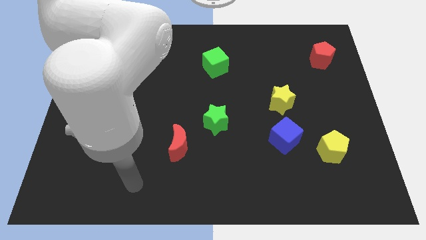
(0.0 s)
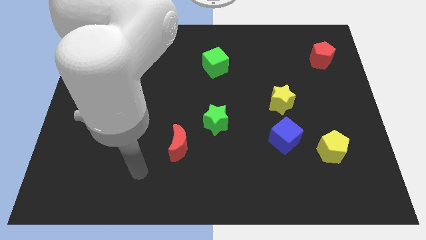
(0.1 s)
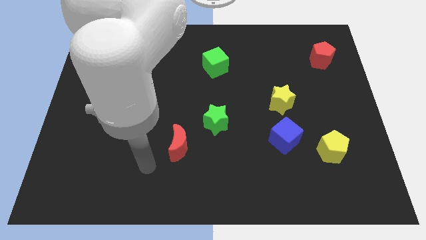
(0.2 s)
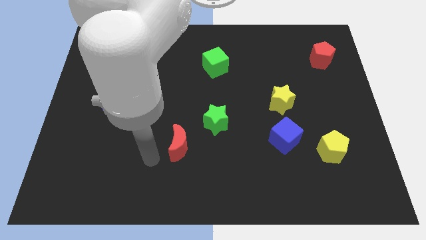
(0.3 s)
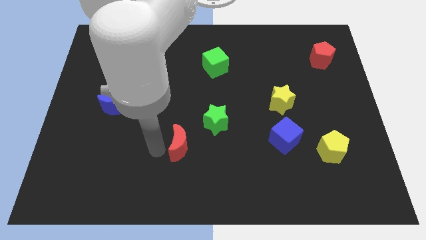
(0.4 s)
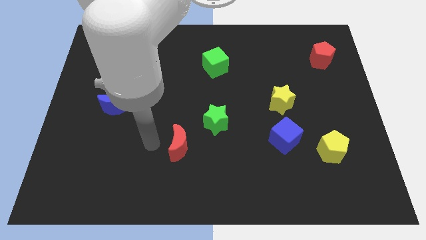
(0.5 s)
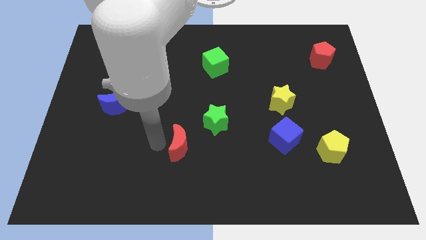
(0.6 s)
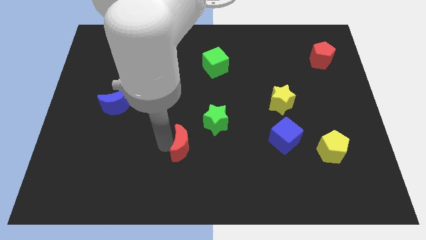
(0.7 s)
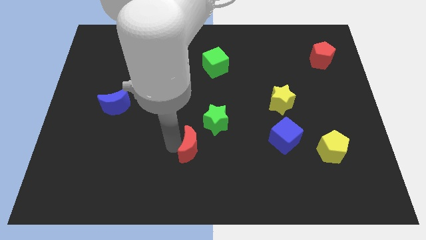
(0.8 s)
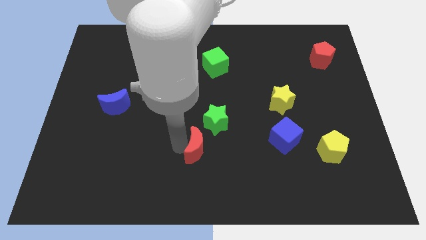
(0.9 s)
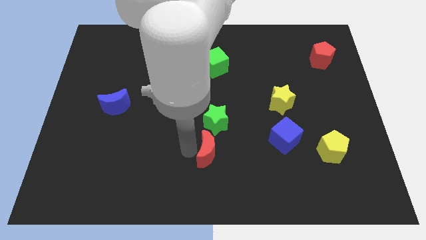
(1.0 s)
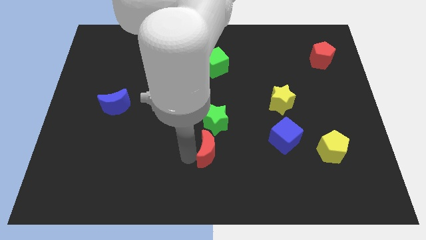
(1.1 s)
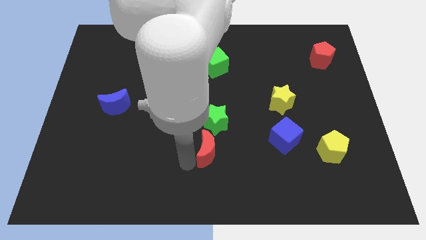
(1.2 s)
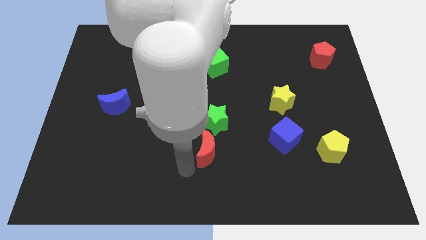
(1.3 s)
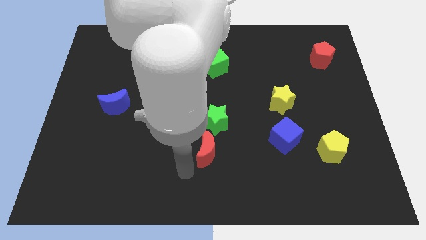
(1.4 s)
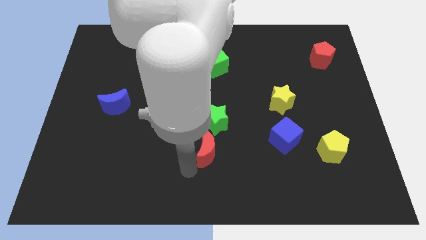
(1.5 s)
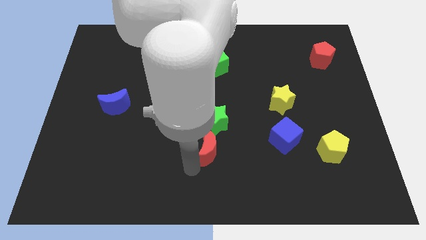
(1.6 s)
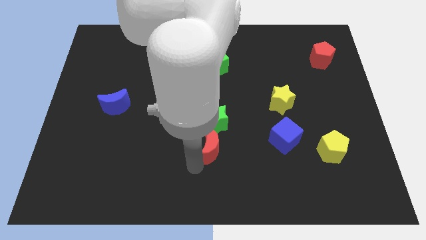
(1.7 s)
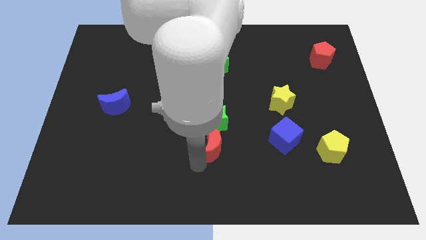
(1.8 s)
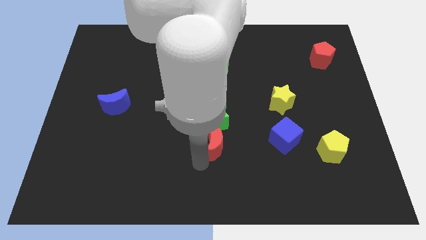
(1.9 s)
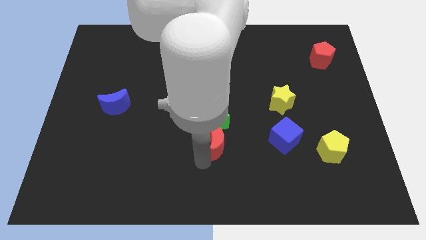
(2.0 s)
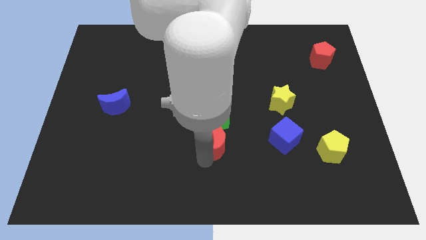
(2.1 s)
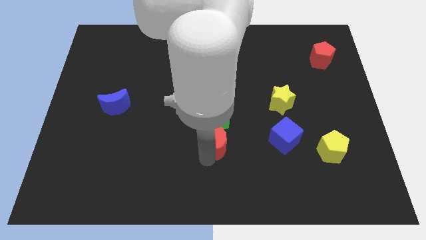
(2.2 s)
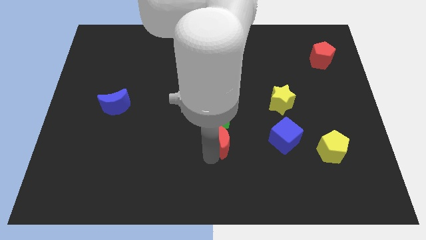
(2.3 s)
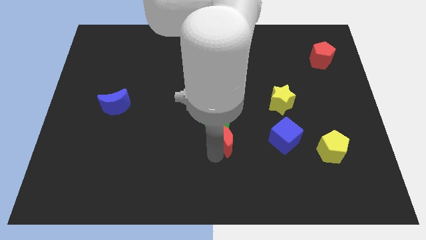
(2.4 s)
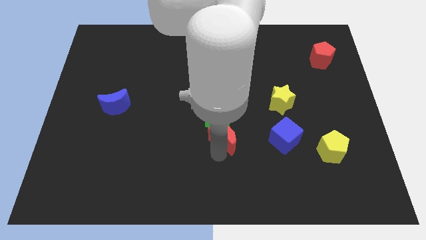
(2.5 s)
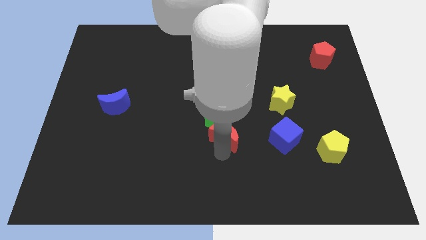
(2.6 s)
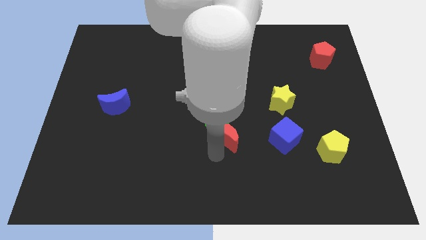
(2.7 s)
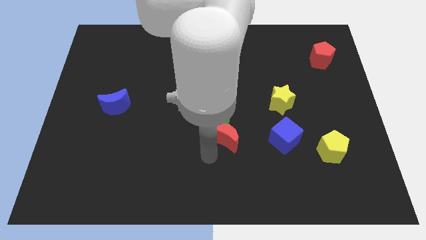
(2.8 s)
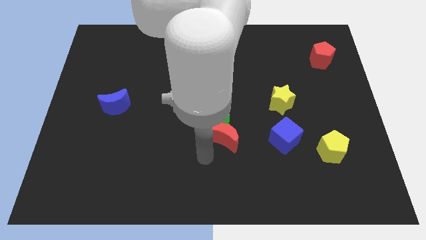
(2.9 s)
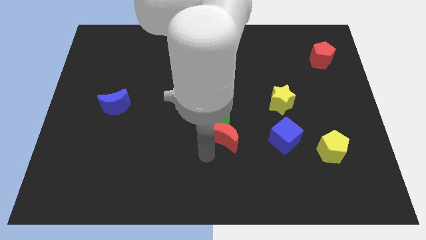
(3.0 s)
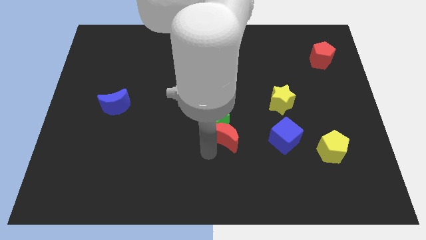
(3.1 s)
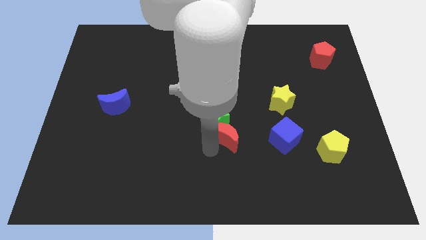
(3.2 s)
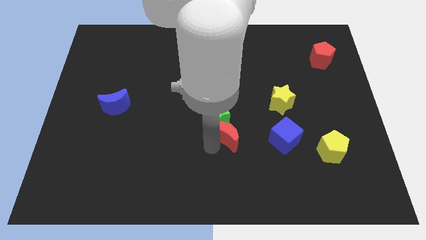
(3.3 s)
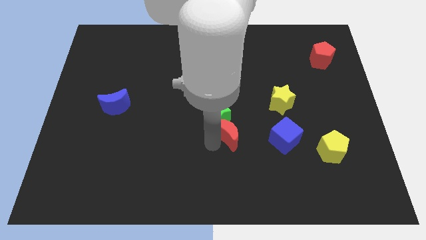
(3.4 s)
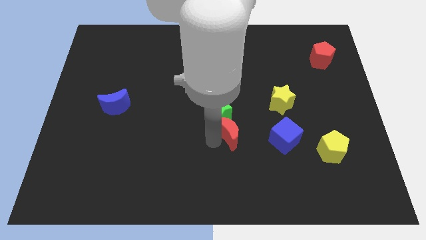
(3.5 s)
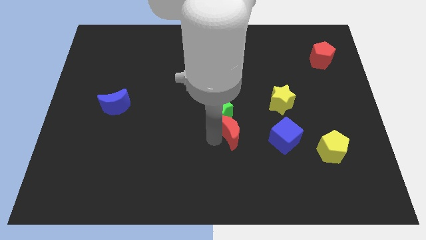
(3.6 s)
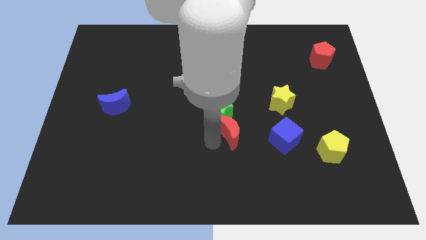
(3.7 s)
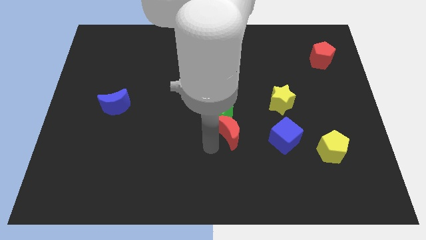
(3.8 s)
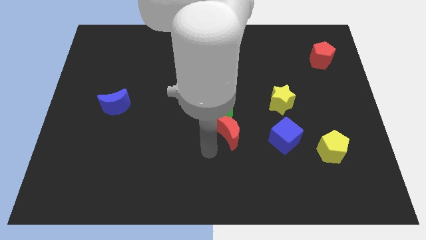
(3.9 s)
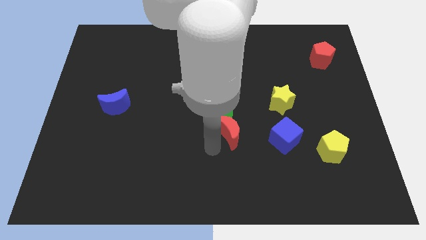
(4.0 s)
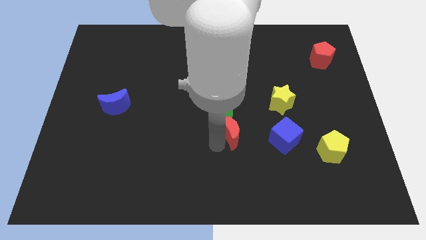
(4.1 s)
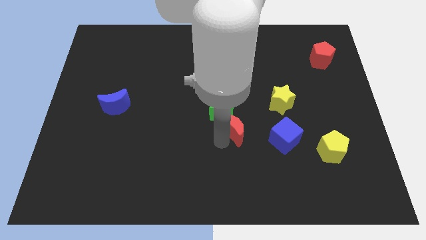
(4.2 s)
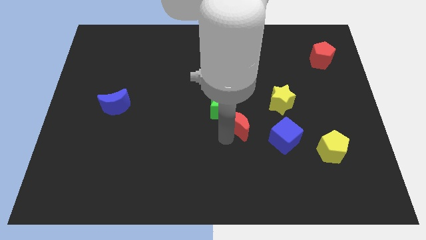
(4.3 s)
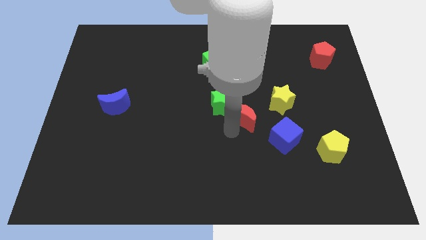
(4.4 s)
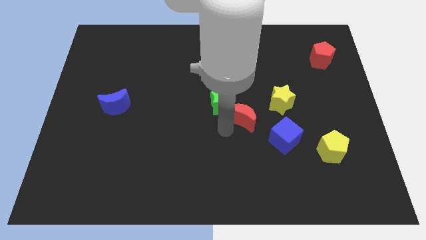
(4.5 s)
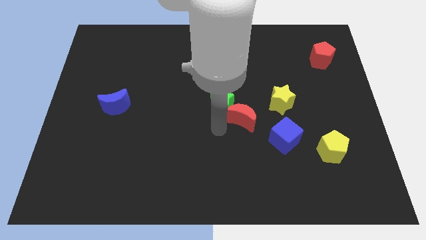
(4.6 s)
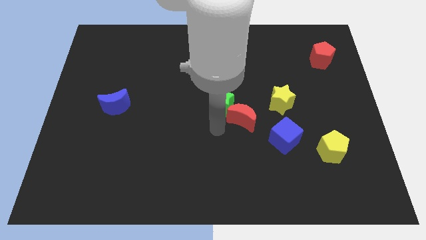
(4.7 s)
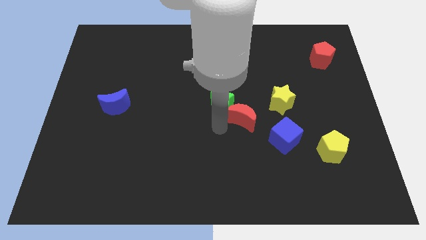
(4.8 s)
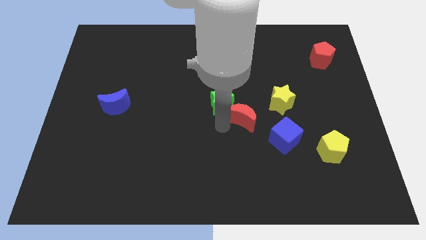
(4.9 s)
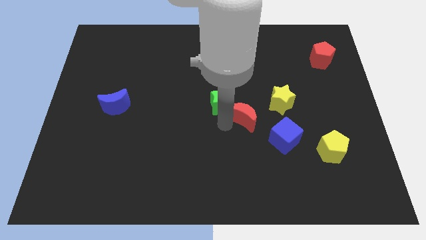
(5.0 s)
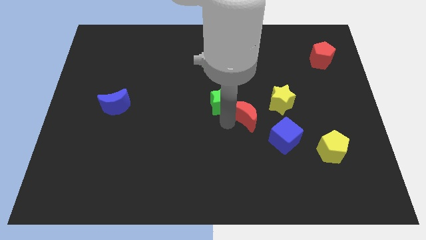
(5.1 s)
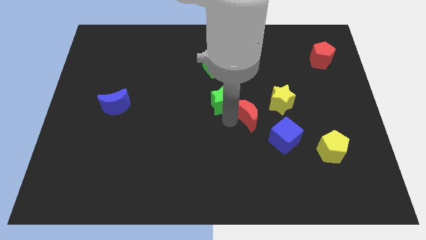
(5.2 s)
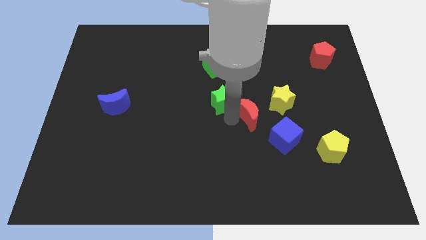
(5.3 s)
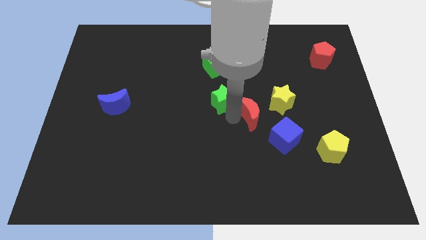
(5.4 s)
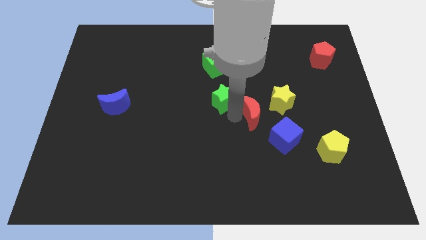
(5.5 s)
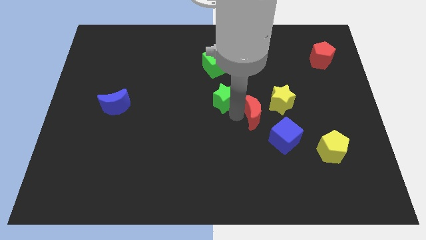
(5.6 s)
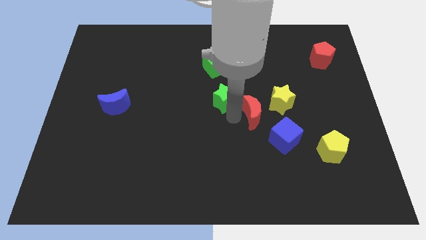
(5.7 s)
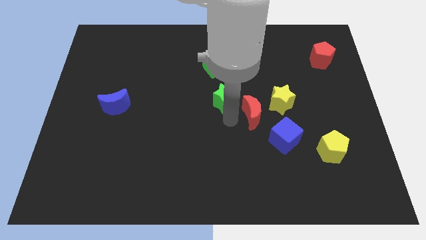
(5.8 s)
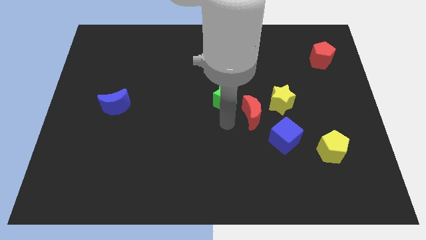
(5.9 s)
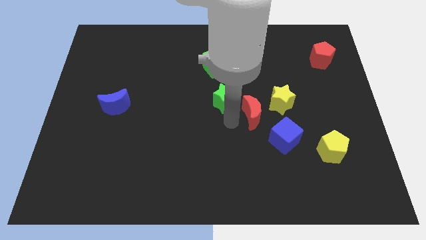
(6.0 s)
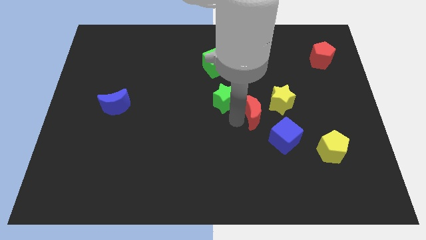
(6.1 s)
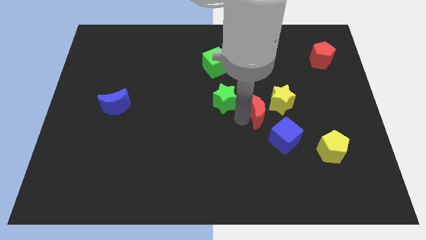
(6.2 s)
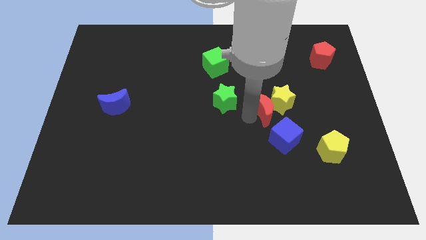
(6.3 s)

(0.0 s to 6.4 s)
put the red moon close to the yellow star

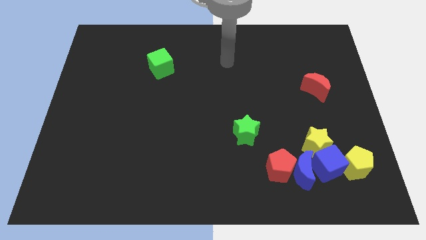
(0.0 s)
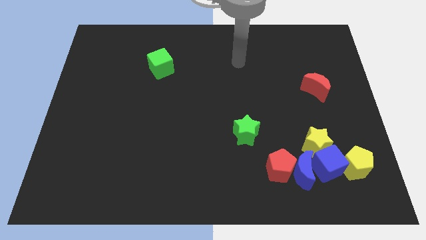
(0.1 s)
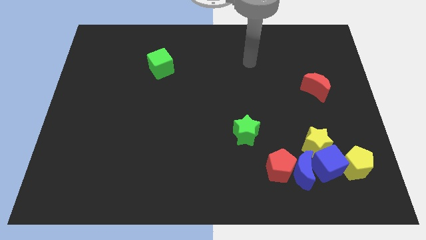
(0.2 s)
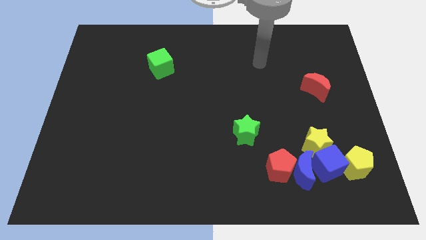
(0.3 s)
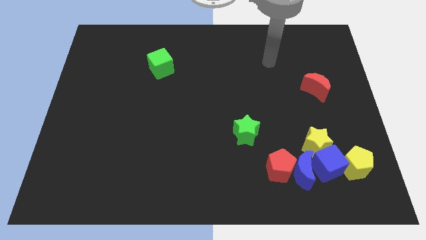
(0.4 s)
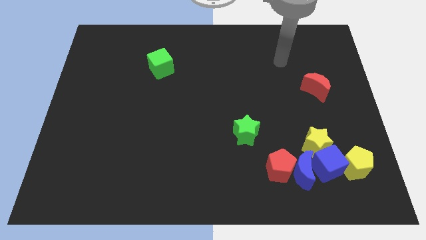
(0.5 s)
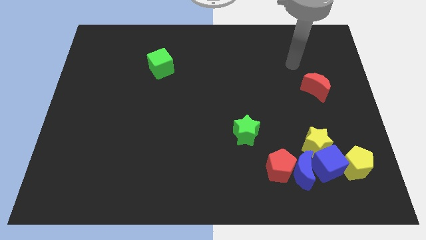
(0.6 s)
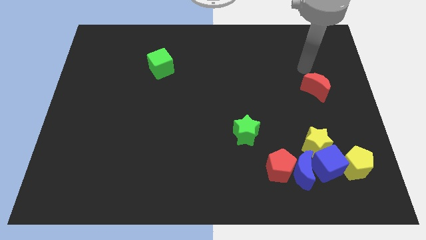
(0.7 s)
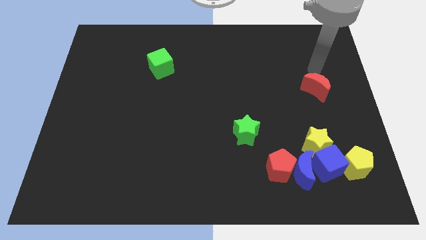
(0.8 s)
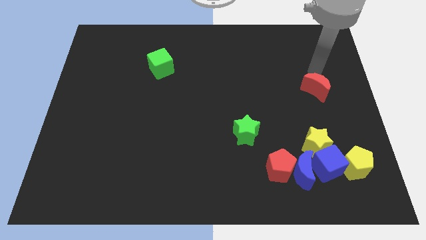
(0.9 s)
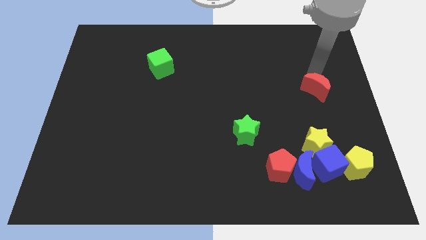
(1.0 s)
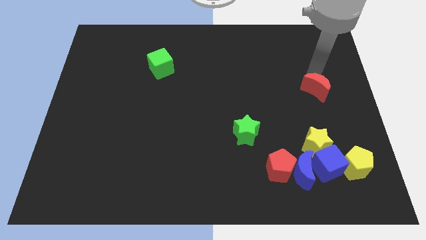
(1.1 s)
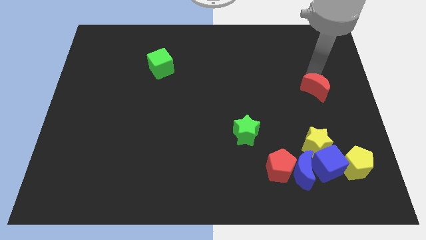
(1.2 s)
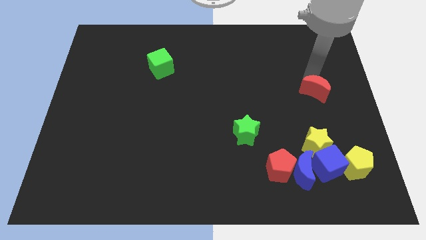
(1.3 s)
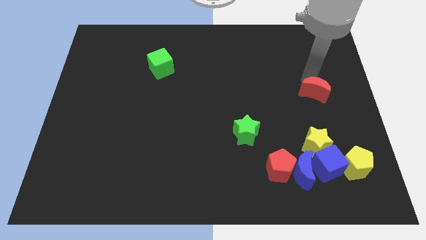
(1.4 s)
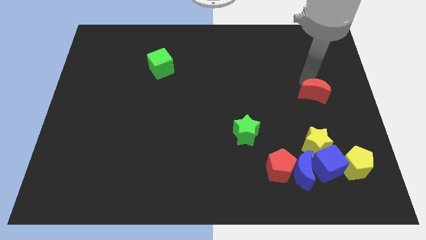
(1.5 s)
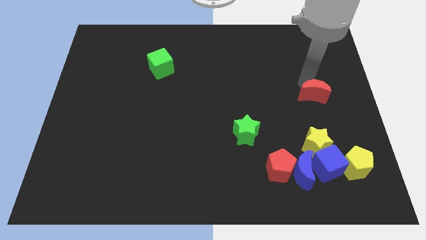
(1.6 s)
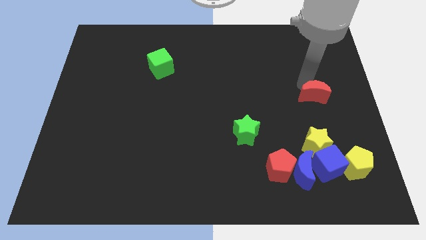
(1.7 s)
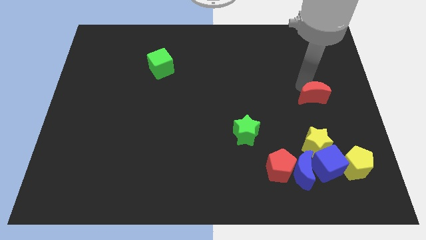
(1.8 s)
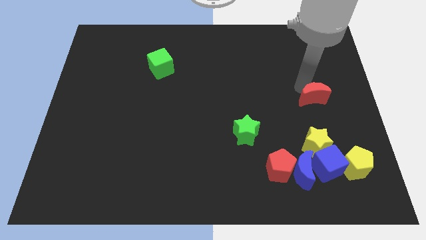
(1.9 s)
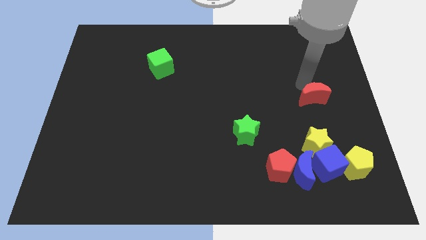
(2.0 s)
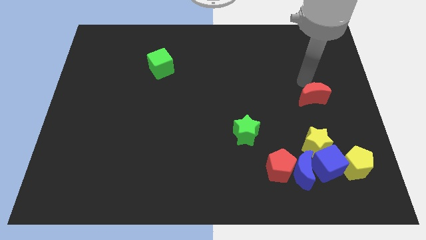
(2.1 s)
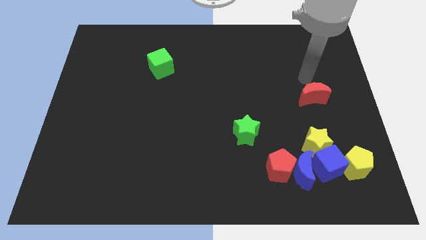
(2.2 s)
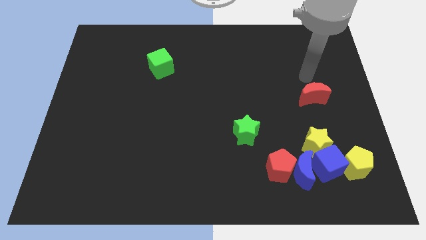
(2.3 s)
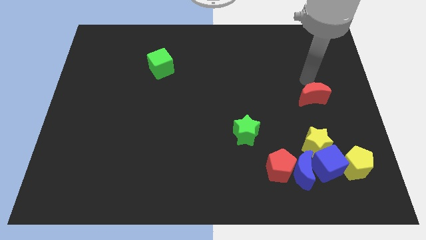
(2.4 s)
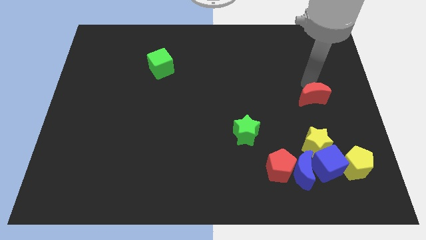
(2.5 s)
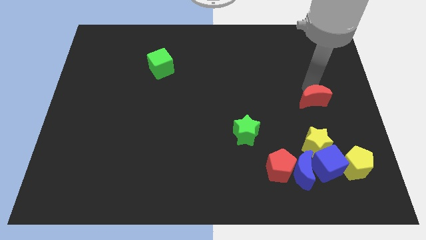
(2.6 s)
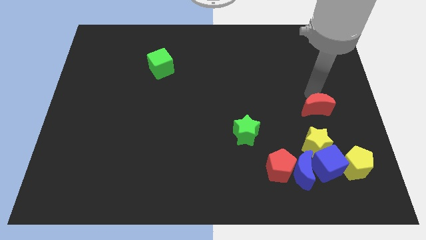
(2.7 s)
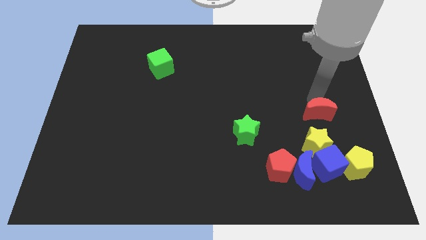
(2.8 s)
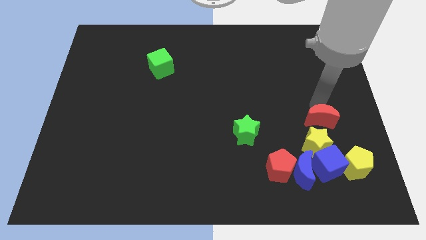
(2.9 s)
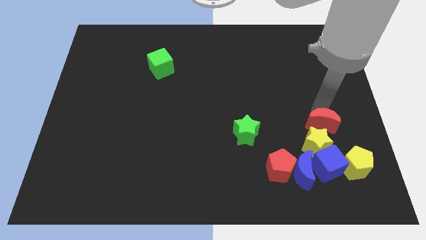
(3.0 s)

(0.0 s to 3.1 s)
move the red moon close to the yellow star
